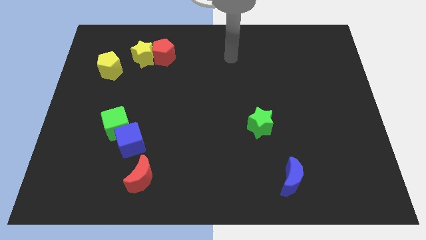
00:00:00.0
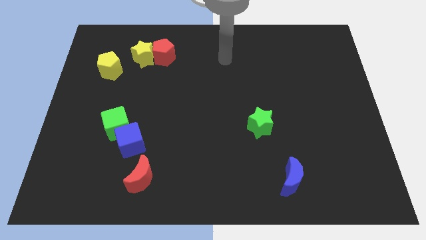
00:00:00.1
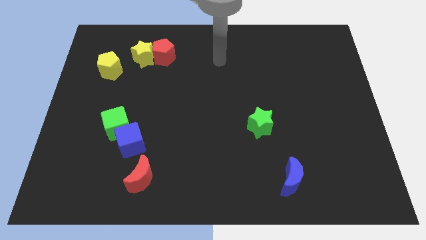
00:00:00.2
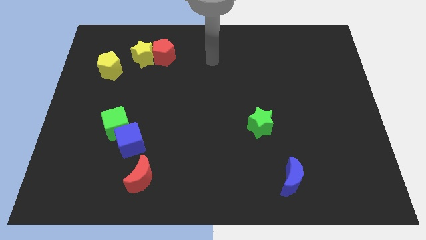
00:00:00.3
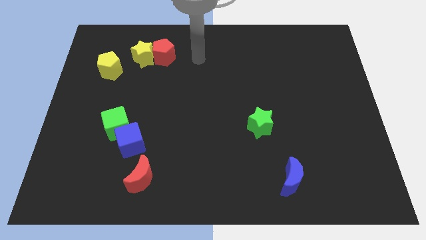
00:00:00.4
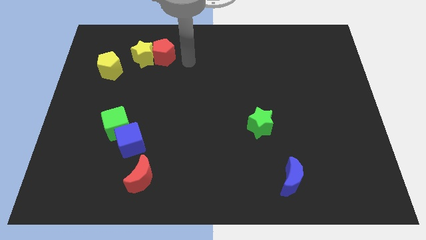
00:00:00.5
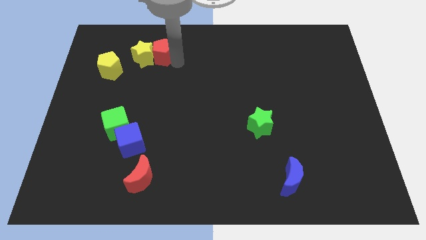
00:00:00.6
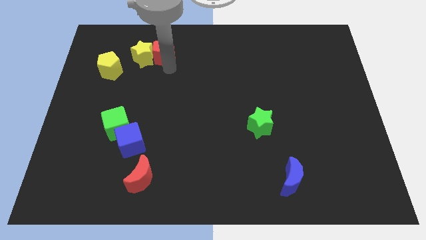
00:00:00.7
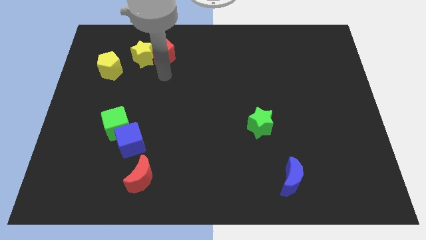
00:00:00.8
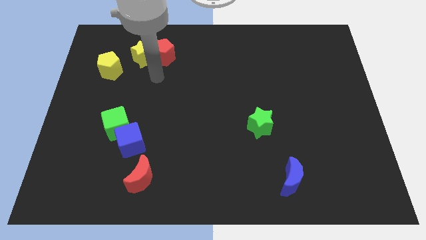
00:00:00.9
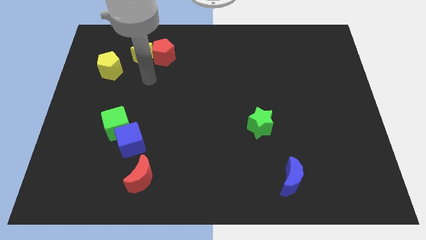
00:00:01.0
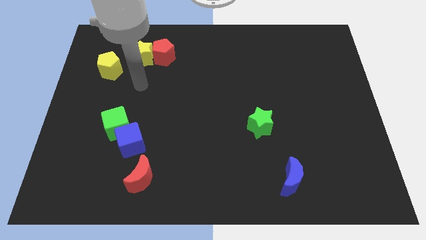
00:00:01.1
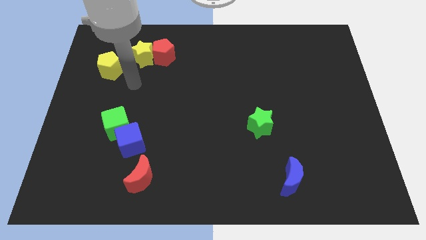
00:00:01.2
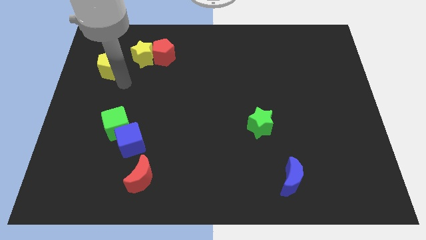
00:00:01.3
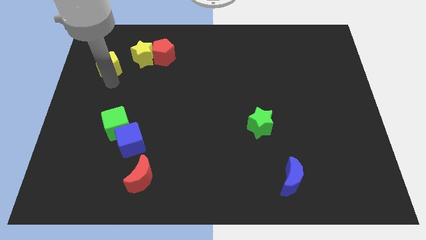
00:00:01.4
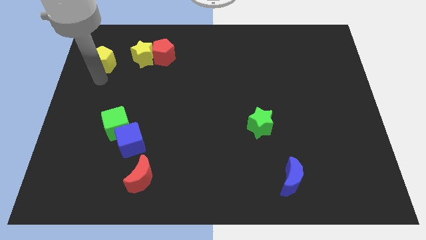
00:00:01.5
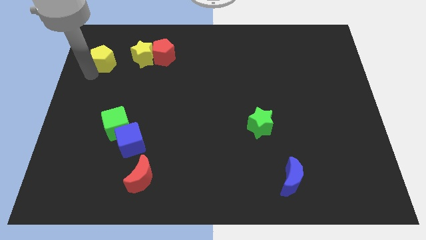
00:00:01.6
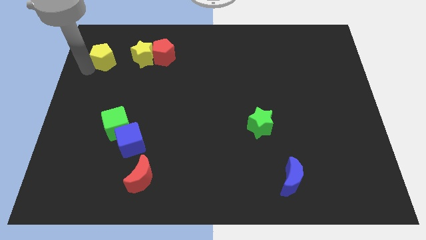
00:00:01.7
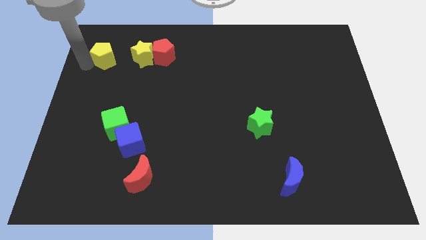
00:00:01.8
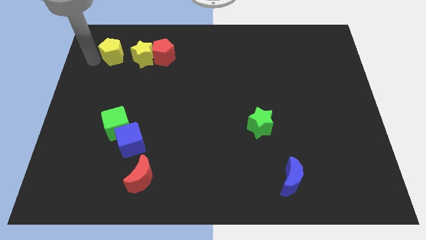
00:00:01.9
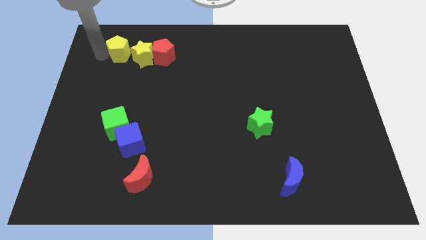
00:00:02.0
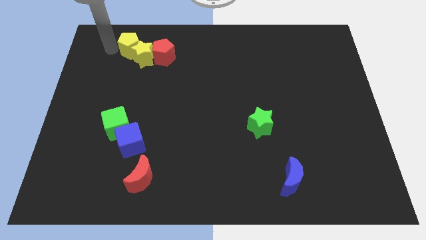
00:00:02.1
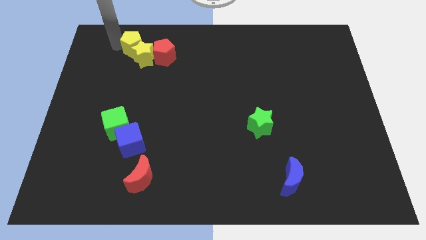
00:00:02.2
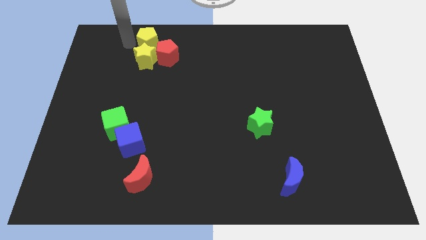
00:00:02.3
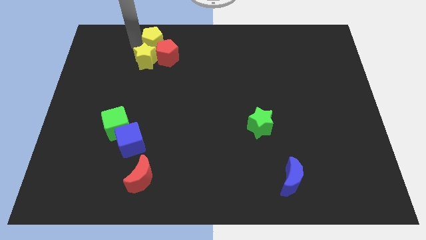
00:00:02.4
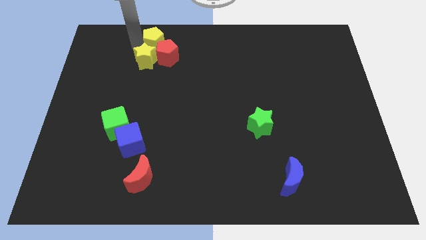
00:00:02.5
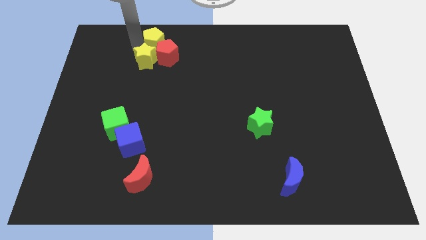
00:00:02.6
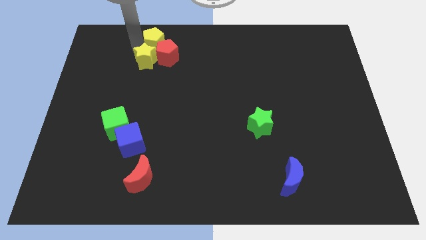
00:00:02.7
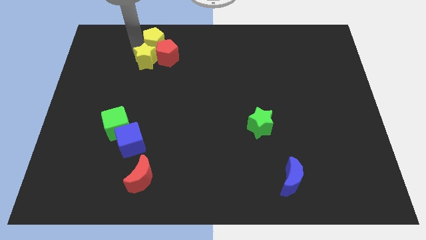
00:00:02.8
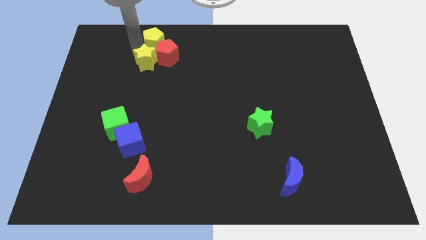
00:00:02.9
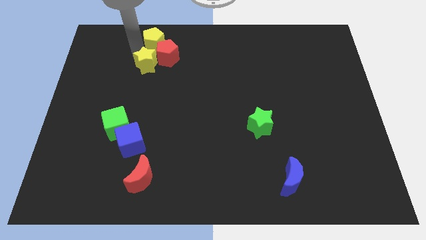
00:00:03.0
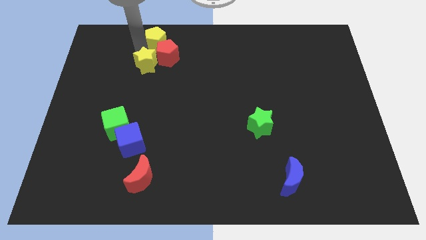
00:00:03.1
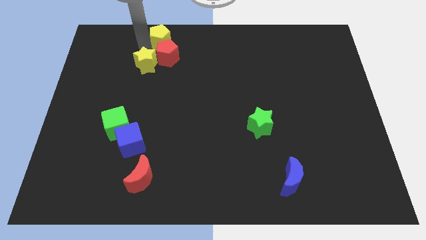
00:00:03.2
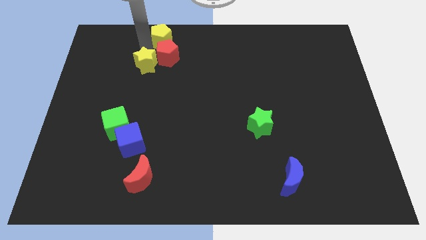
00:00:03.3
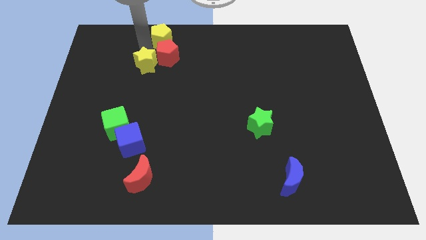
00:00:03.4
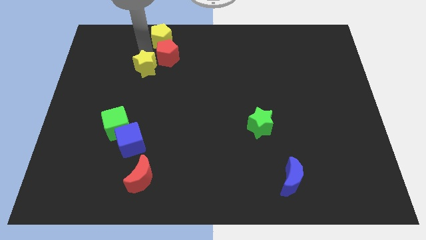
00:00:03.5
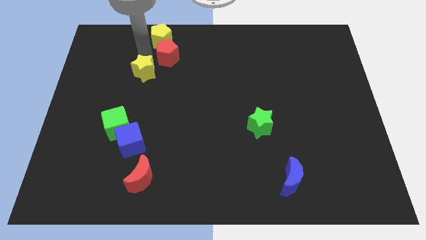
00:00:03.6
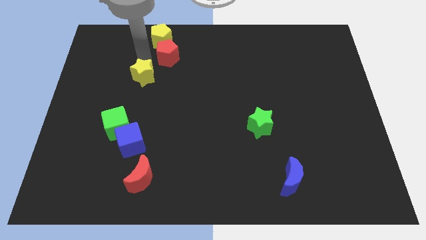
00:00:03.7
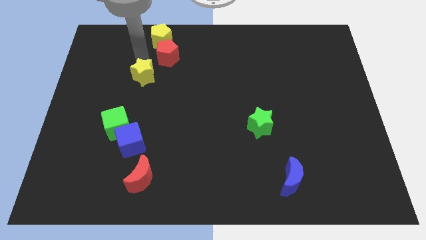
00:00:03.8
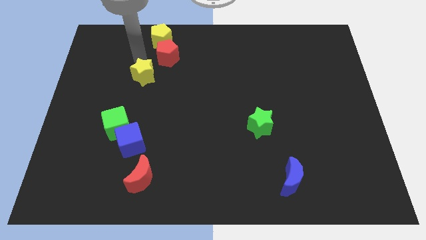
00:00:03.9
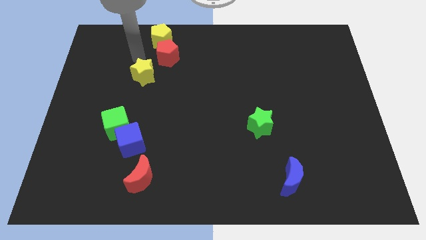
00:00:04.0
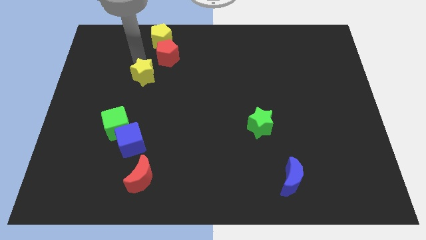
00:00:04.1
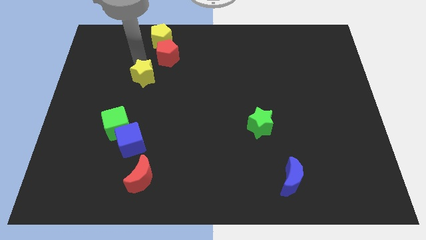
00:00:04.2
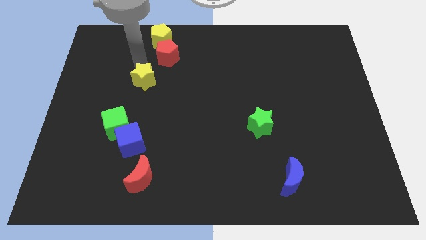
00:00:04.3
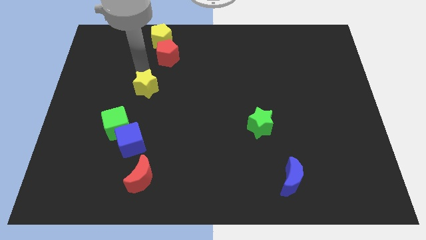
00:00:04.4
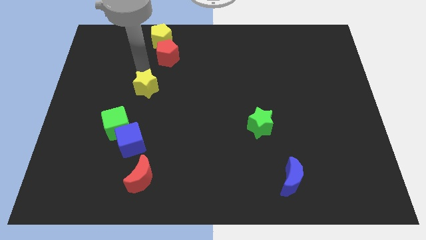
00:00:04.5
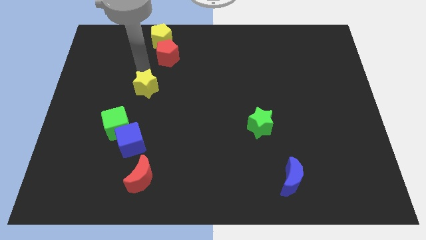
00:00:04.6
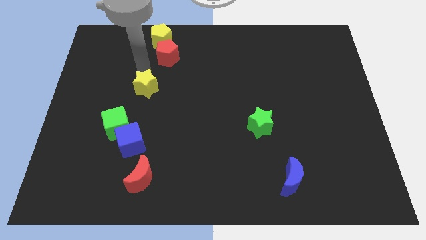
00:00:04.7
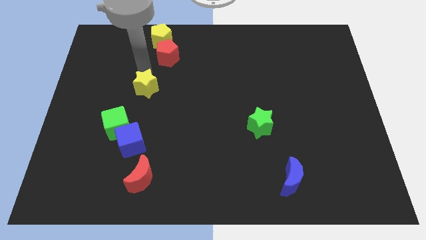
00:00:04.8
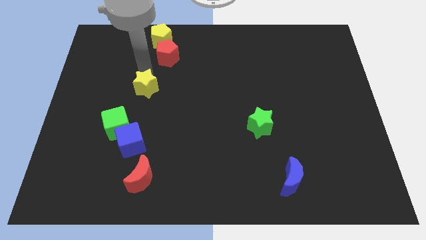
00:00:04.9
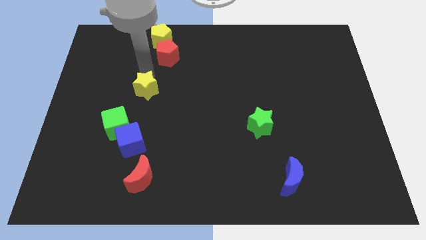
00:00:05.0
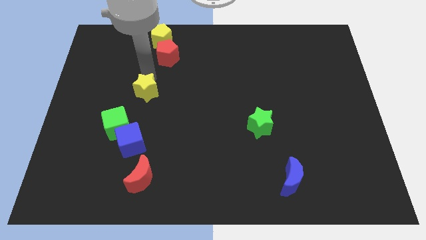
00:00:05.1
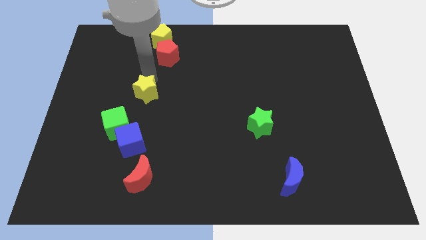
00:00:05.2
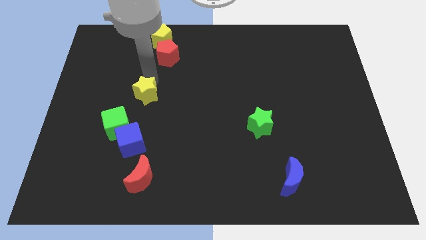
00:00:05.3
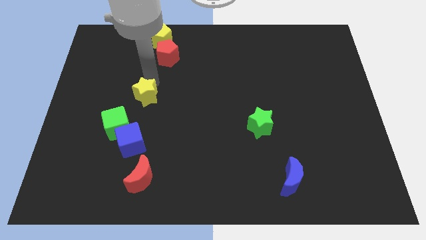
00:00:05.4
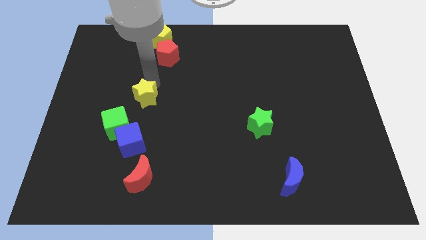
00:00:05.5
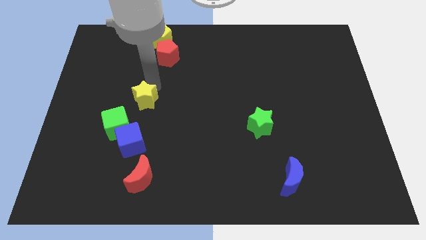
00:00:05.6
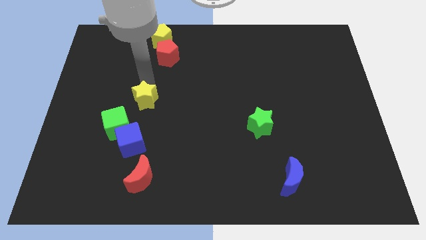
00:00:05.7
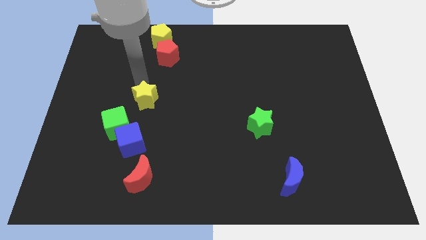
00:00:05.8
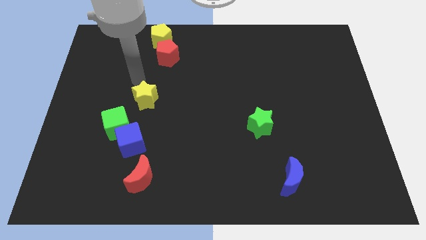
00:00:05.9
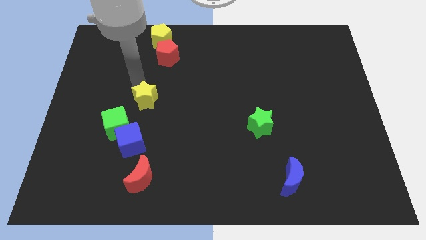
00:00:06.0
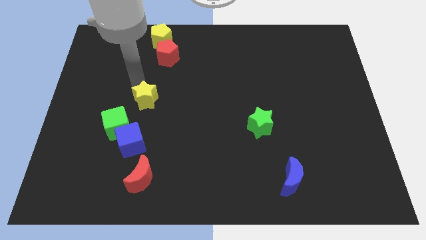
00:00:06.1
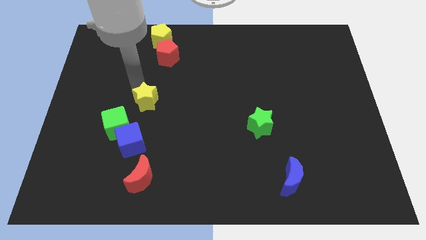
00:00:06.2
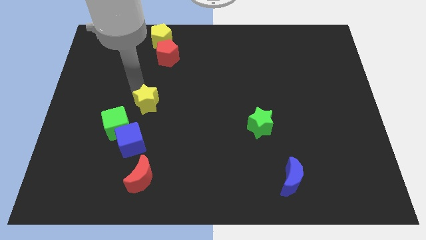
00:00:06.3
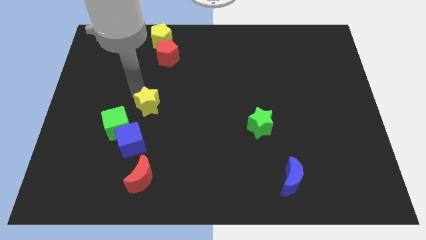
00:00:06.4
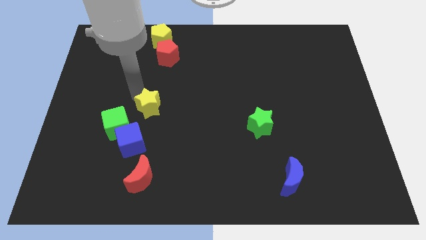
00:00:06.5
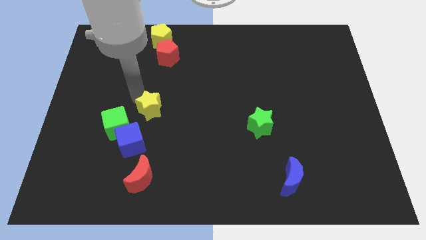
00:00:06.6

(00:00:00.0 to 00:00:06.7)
put the yellow star to the top right side of the blue cube

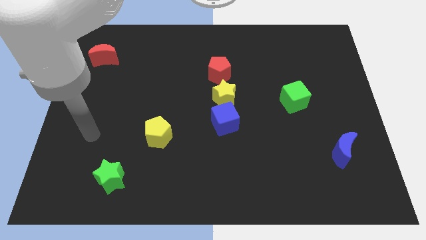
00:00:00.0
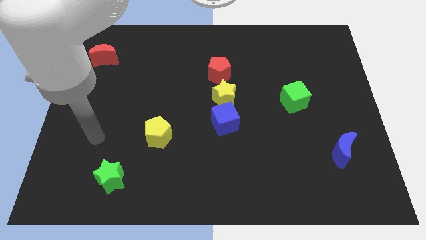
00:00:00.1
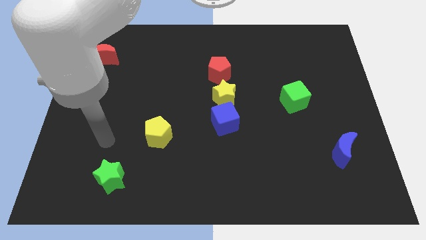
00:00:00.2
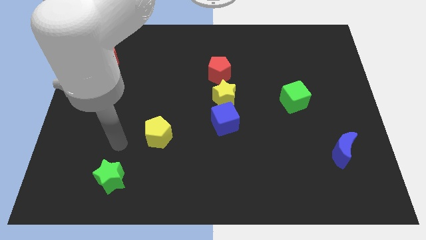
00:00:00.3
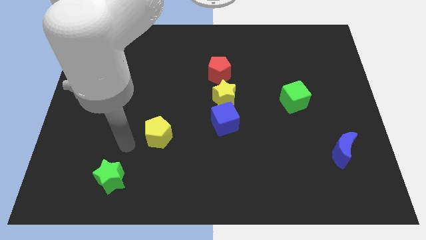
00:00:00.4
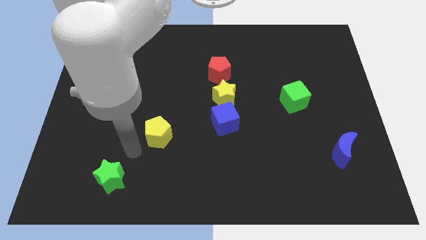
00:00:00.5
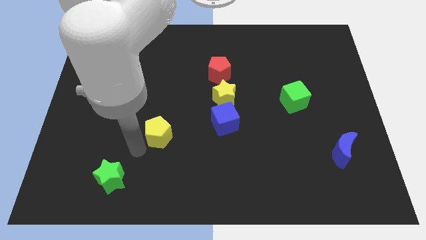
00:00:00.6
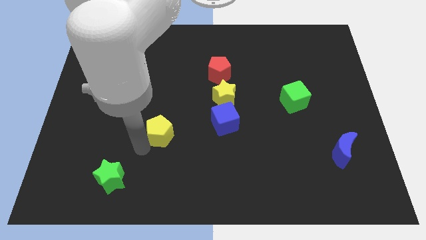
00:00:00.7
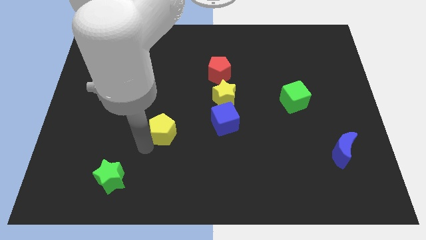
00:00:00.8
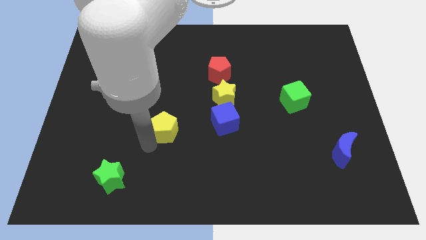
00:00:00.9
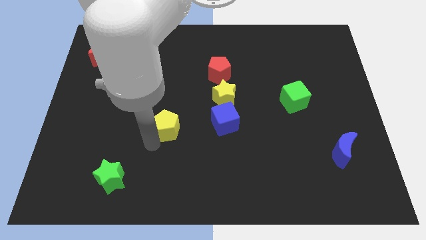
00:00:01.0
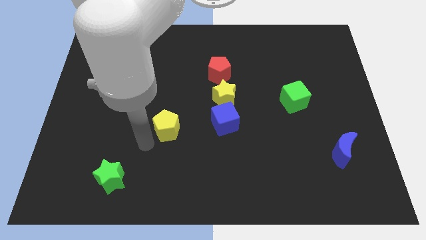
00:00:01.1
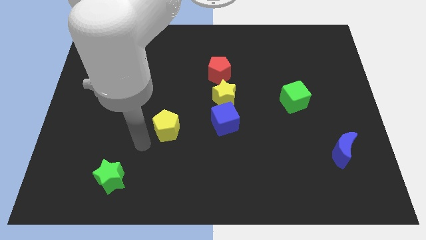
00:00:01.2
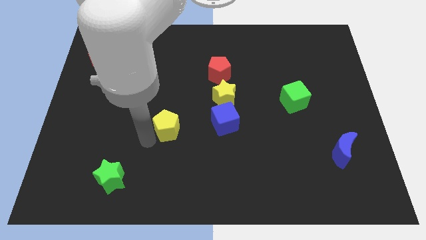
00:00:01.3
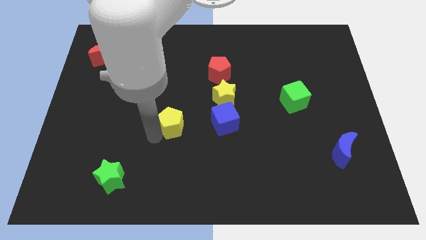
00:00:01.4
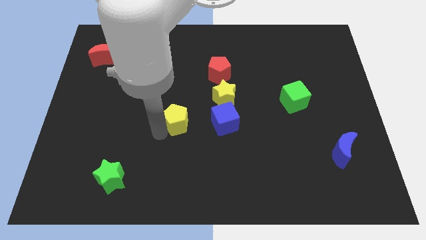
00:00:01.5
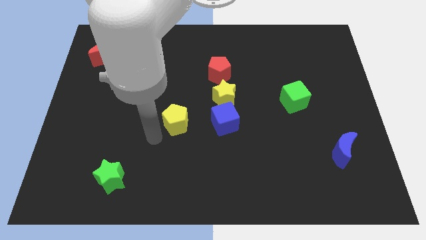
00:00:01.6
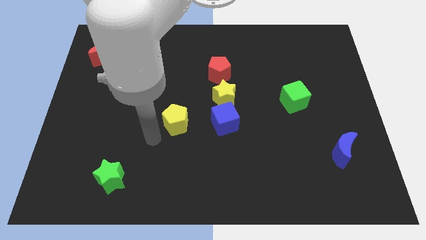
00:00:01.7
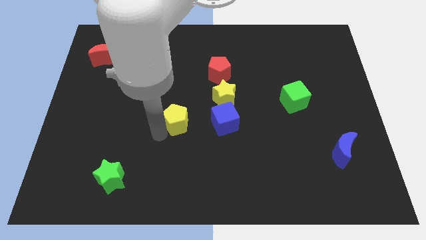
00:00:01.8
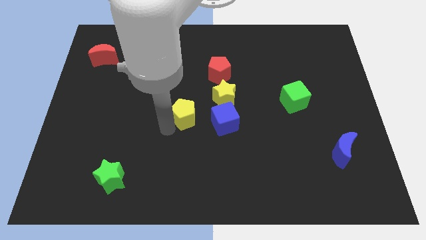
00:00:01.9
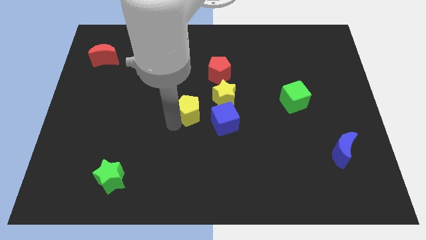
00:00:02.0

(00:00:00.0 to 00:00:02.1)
slide the yellow pentagon to the top left side of the blue cube
